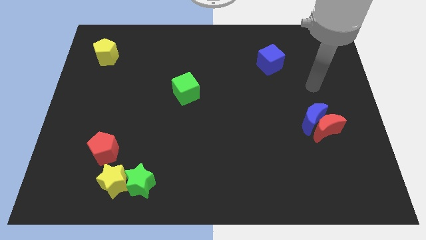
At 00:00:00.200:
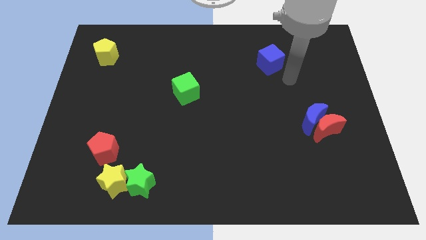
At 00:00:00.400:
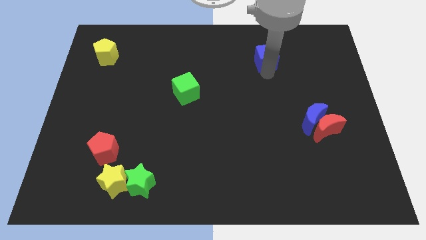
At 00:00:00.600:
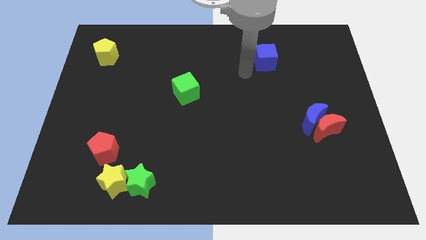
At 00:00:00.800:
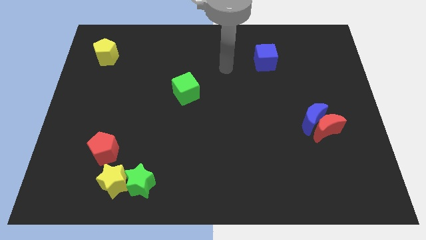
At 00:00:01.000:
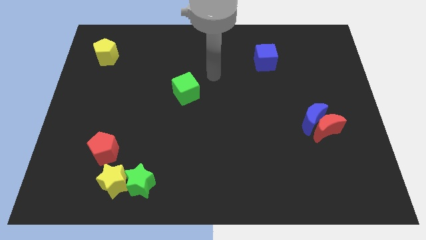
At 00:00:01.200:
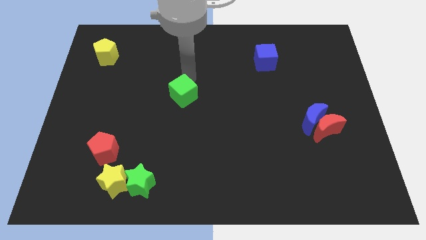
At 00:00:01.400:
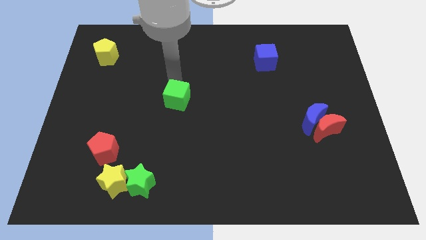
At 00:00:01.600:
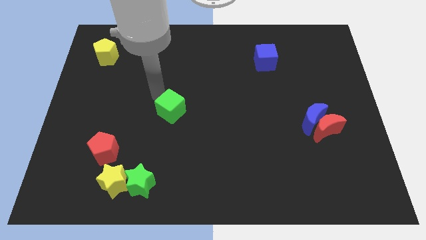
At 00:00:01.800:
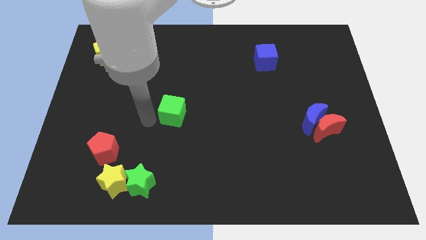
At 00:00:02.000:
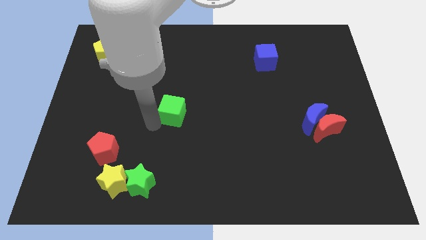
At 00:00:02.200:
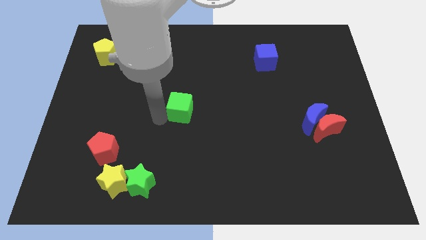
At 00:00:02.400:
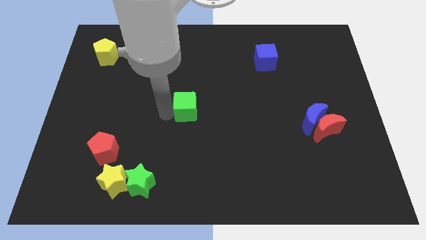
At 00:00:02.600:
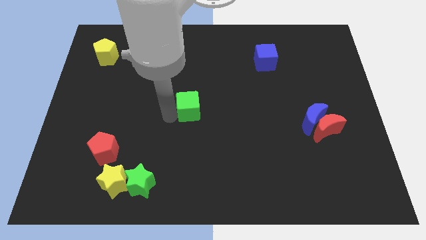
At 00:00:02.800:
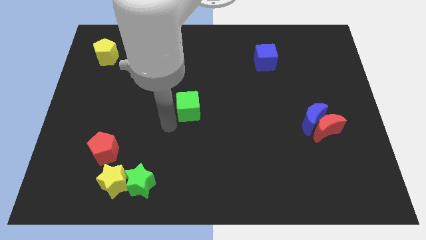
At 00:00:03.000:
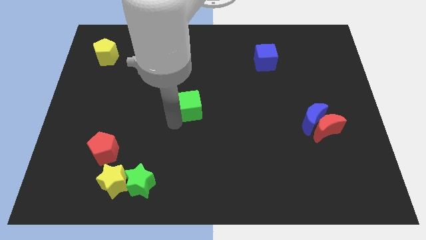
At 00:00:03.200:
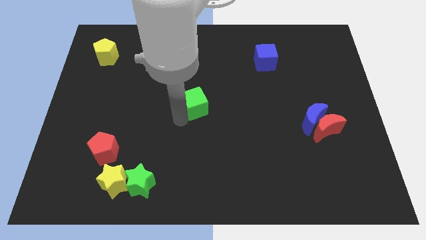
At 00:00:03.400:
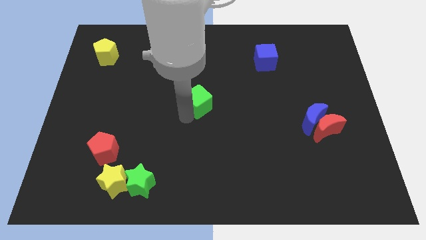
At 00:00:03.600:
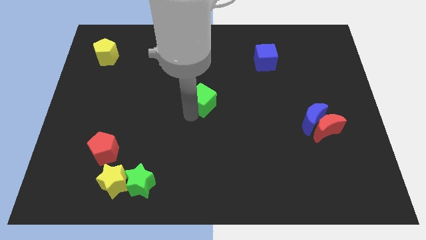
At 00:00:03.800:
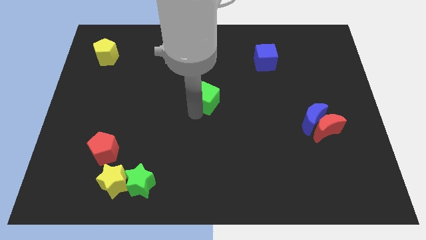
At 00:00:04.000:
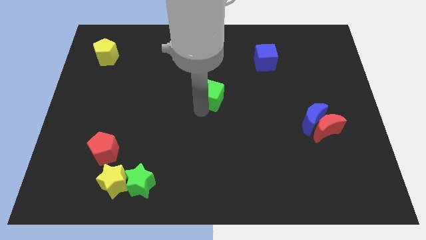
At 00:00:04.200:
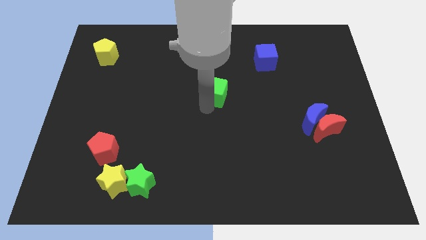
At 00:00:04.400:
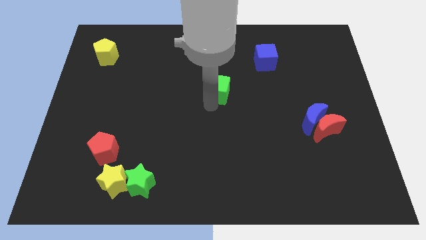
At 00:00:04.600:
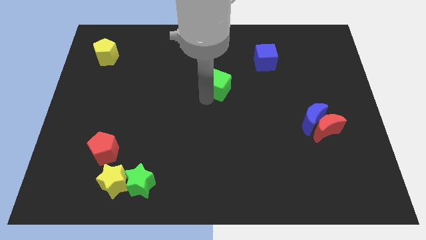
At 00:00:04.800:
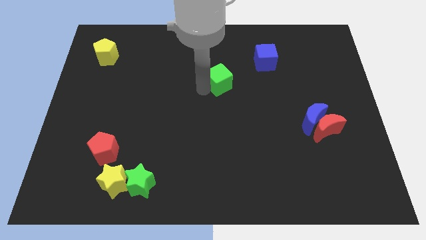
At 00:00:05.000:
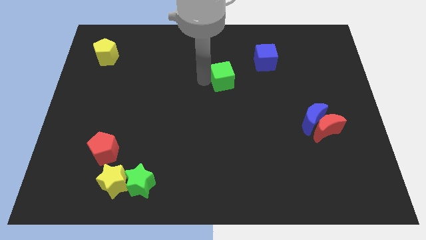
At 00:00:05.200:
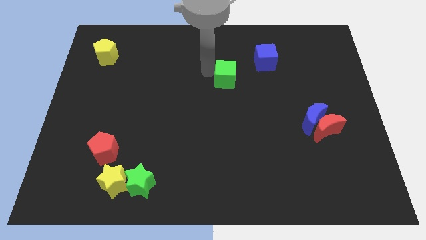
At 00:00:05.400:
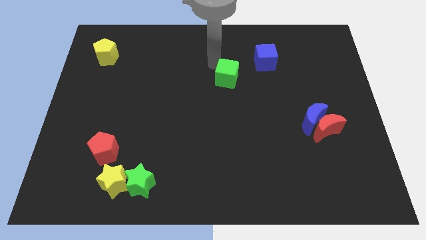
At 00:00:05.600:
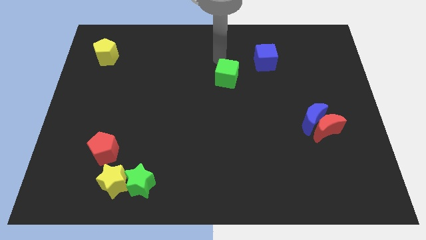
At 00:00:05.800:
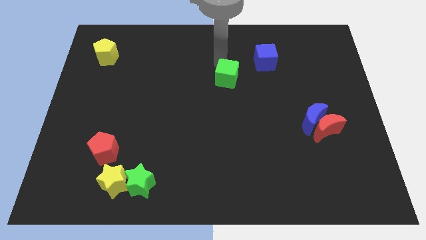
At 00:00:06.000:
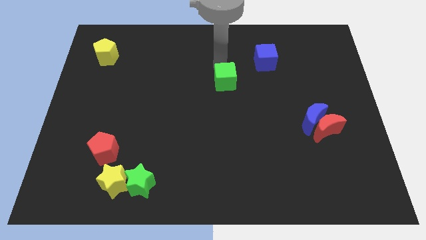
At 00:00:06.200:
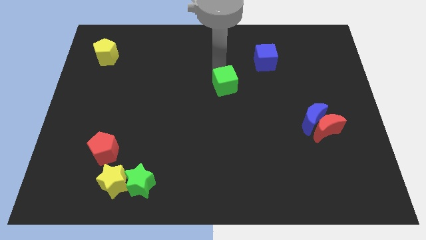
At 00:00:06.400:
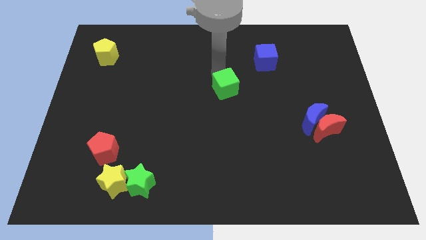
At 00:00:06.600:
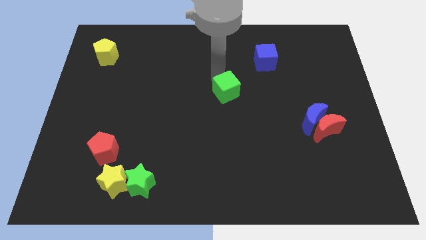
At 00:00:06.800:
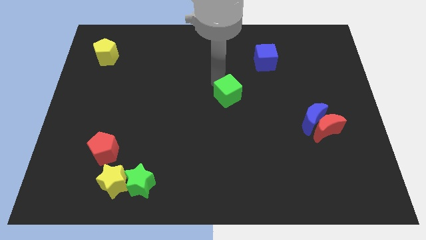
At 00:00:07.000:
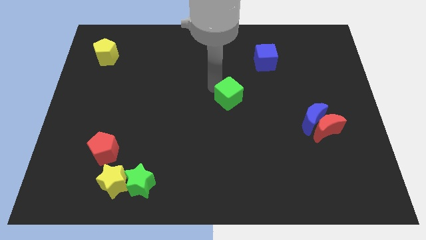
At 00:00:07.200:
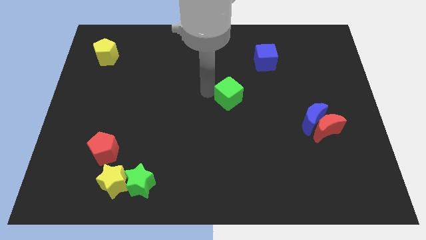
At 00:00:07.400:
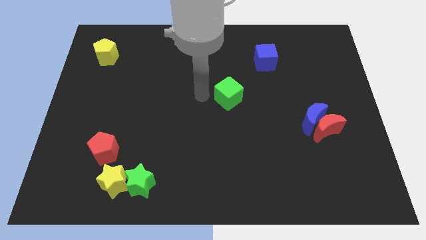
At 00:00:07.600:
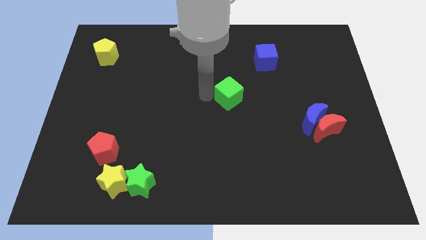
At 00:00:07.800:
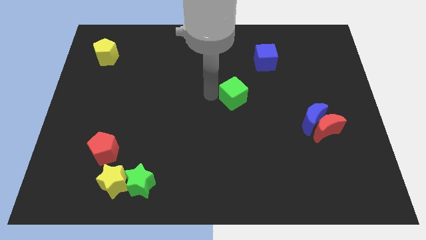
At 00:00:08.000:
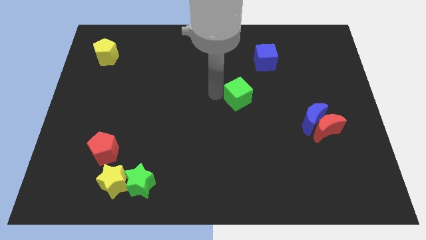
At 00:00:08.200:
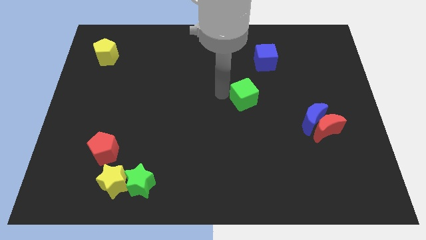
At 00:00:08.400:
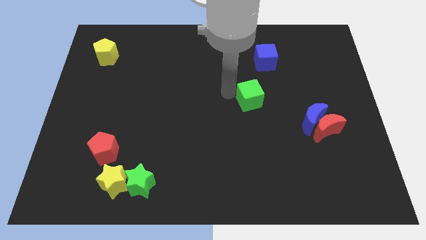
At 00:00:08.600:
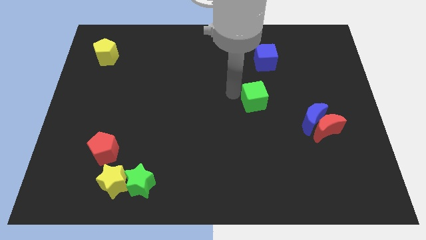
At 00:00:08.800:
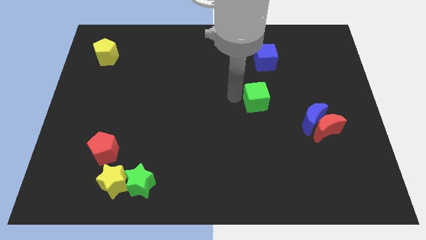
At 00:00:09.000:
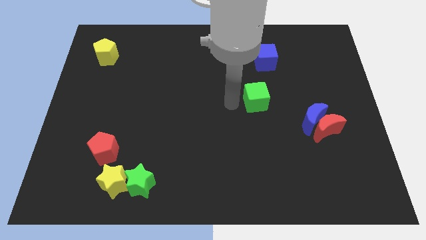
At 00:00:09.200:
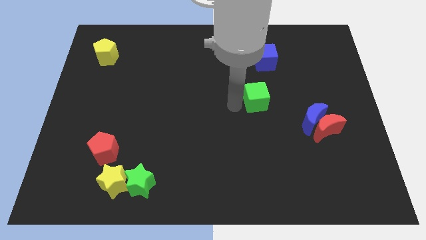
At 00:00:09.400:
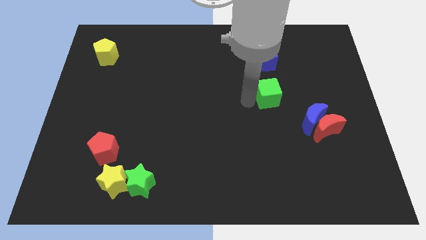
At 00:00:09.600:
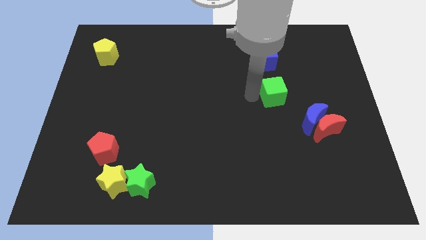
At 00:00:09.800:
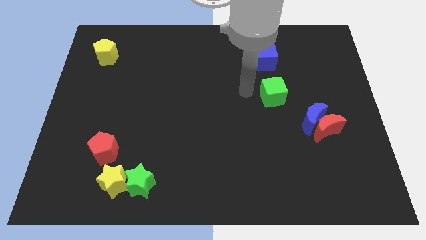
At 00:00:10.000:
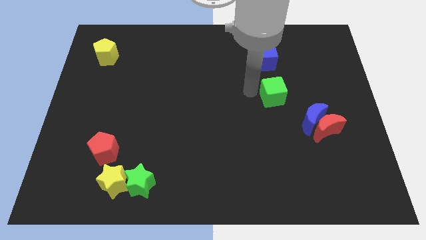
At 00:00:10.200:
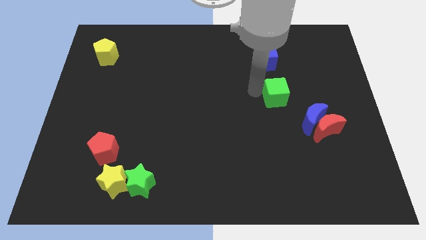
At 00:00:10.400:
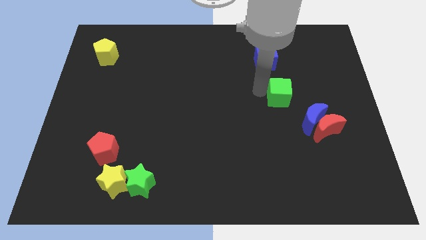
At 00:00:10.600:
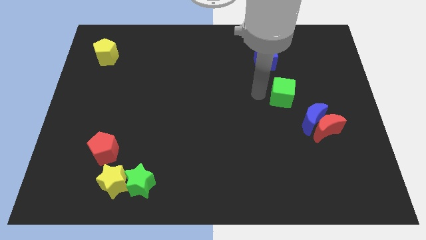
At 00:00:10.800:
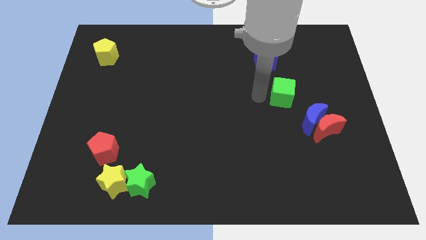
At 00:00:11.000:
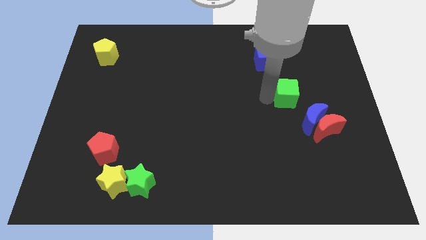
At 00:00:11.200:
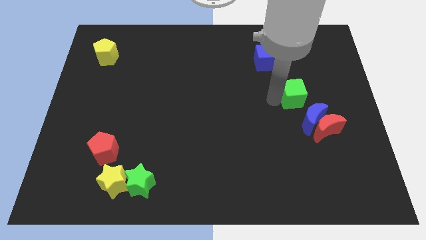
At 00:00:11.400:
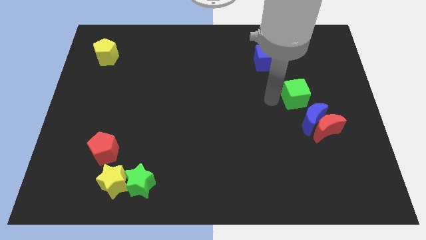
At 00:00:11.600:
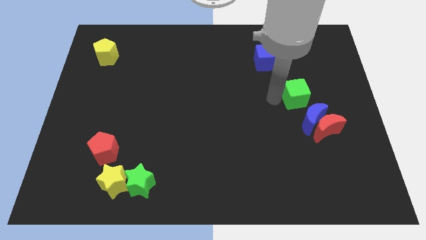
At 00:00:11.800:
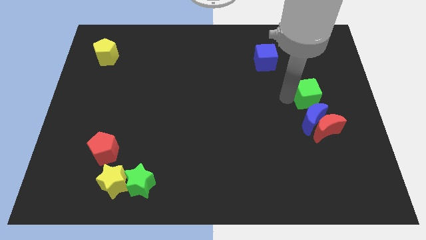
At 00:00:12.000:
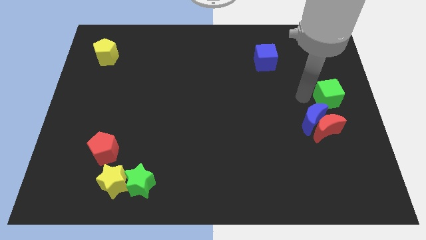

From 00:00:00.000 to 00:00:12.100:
move the green cube to the right side of the board
